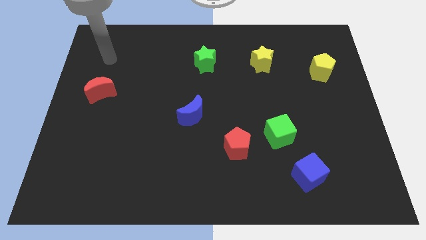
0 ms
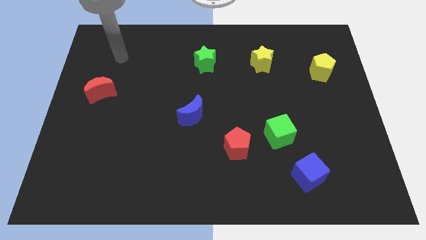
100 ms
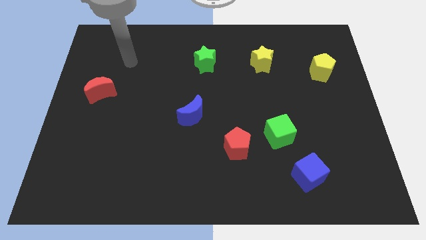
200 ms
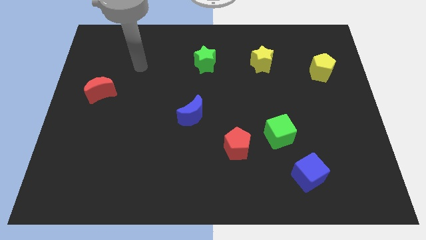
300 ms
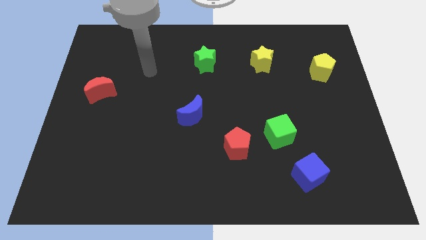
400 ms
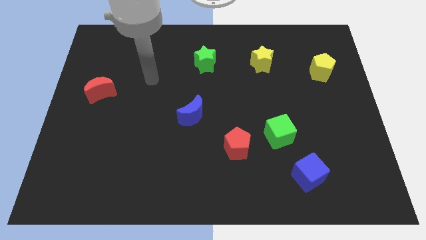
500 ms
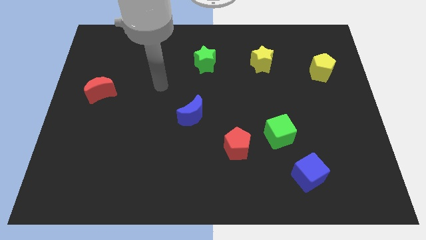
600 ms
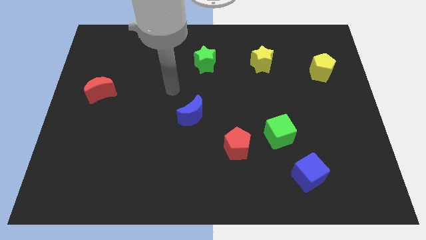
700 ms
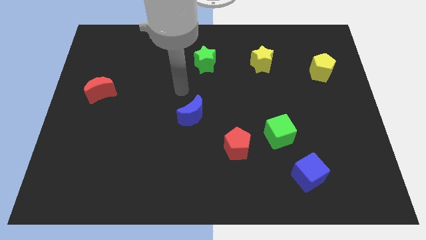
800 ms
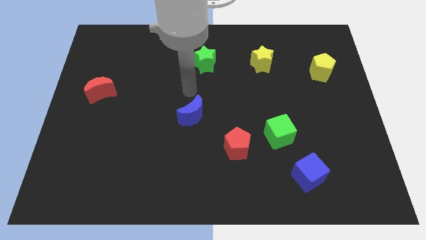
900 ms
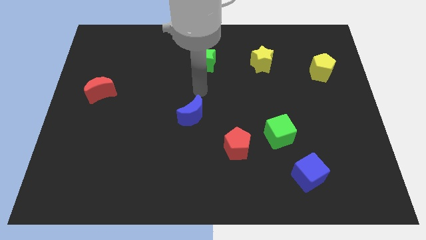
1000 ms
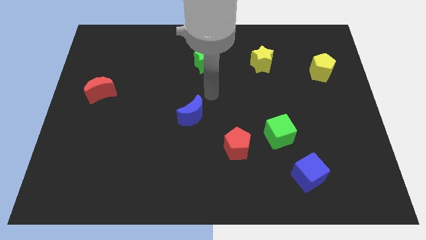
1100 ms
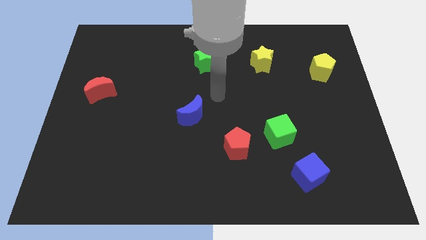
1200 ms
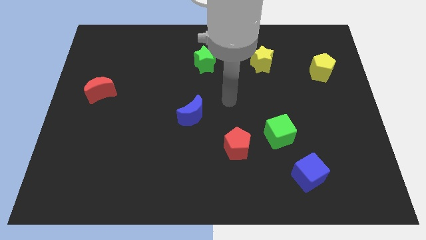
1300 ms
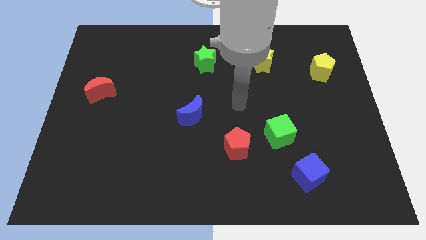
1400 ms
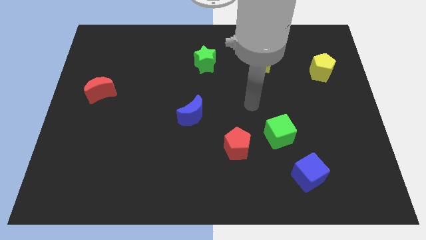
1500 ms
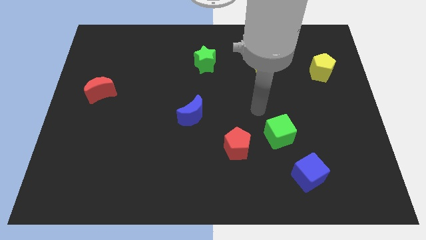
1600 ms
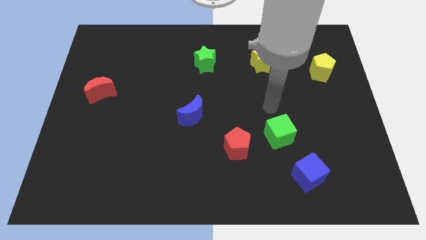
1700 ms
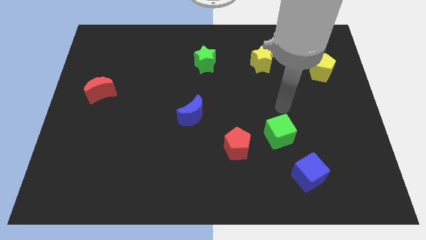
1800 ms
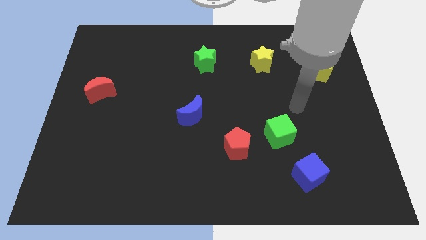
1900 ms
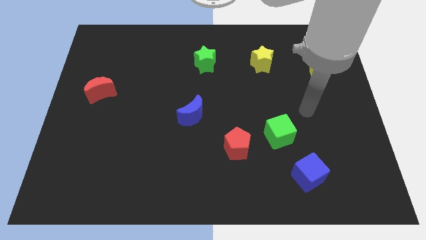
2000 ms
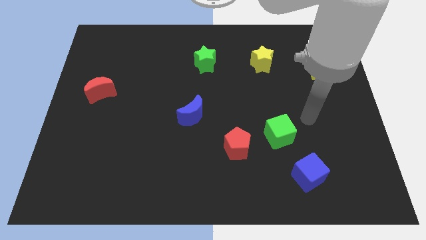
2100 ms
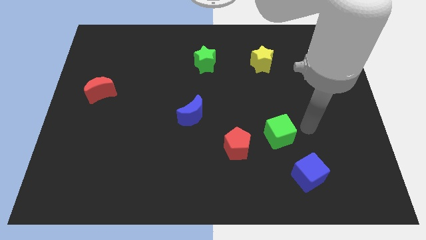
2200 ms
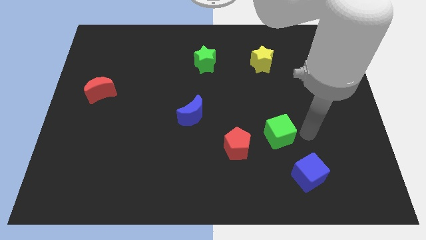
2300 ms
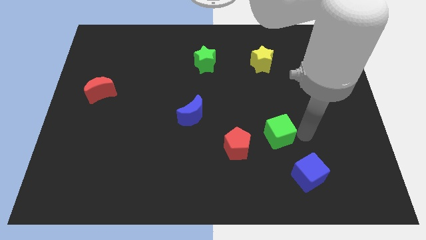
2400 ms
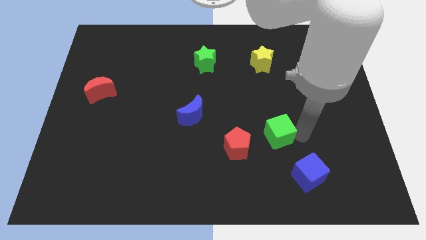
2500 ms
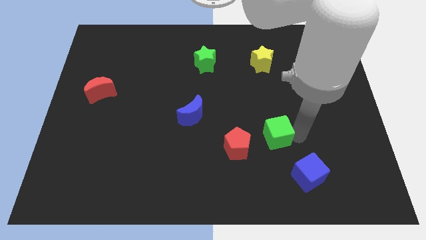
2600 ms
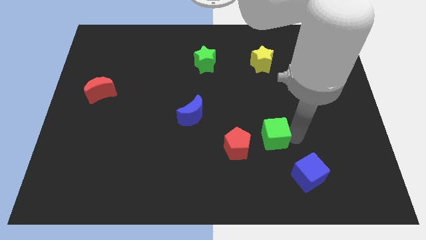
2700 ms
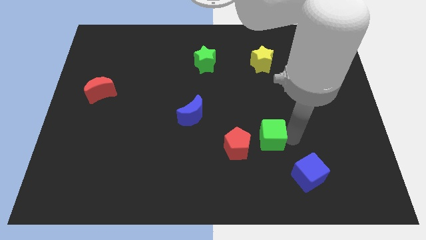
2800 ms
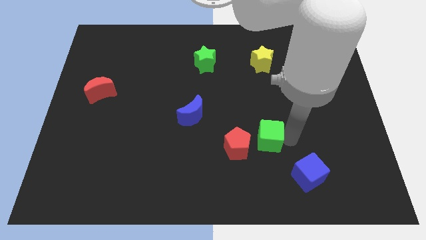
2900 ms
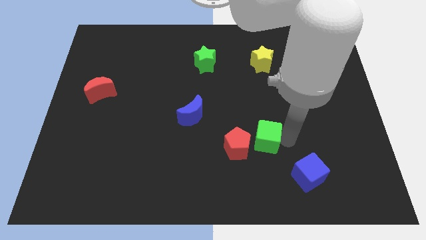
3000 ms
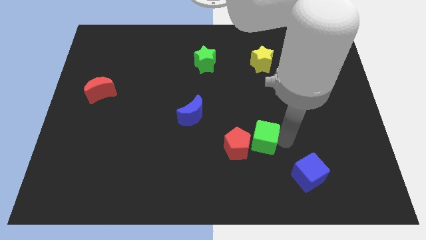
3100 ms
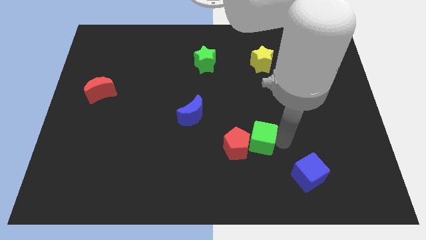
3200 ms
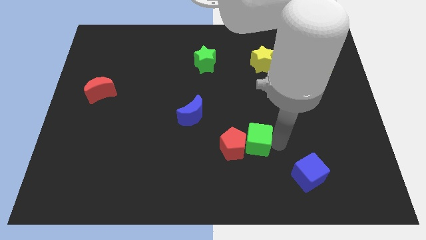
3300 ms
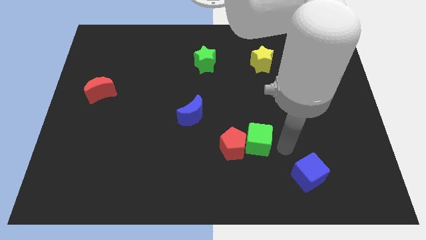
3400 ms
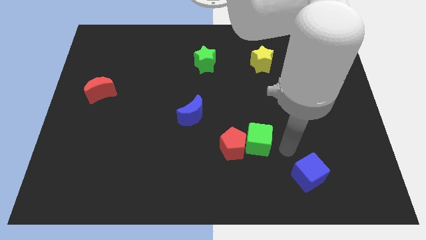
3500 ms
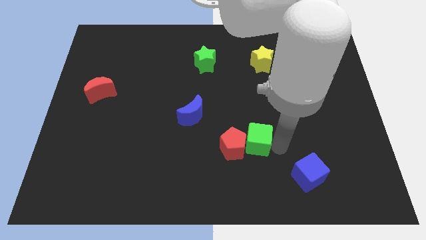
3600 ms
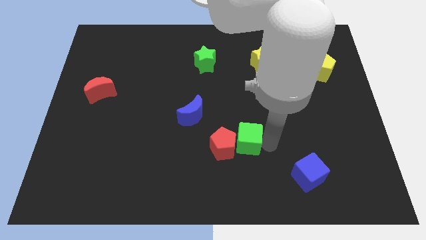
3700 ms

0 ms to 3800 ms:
slide the green cube left somewhat

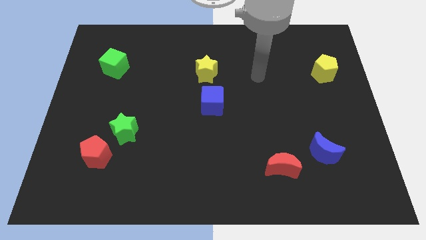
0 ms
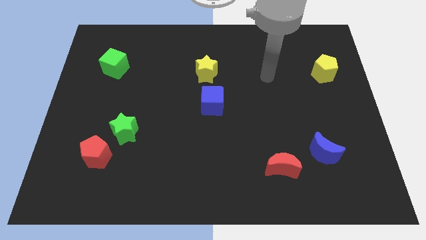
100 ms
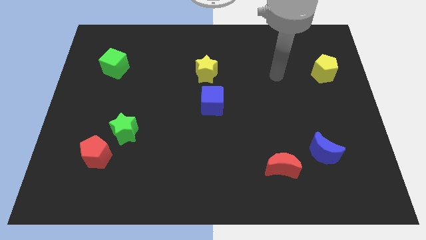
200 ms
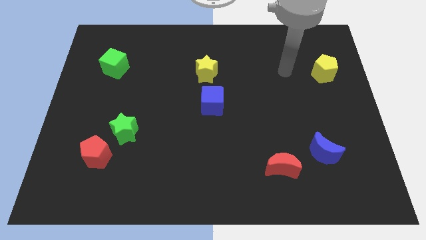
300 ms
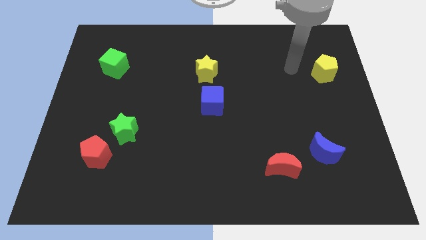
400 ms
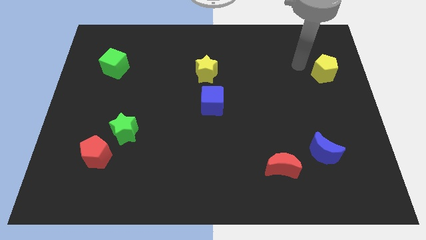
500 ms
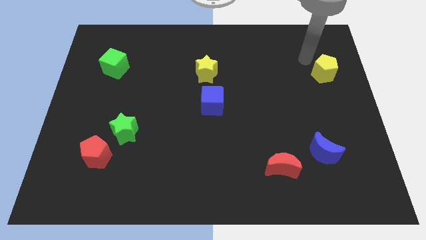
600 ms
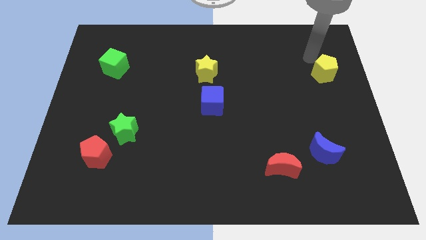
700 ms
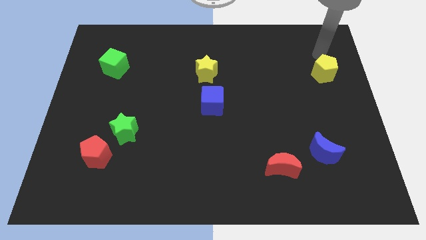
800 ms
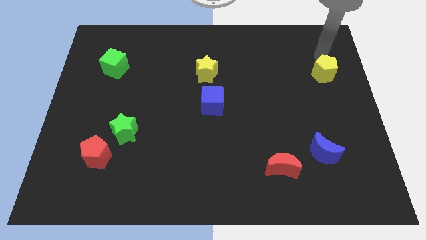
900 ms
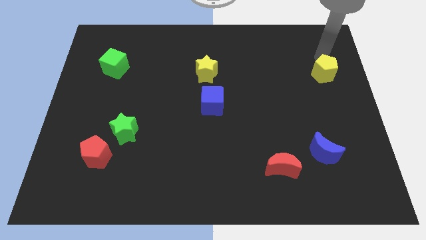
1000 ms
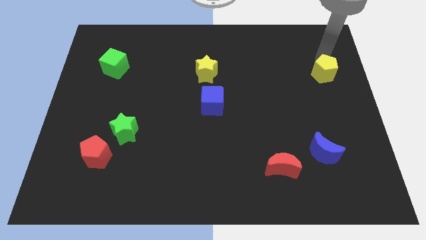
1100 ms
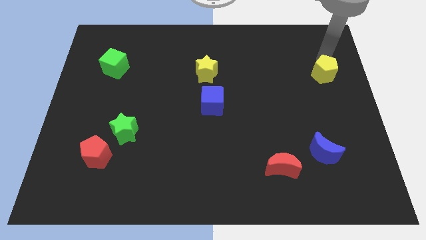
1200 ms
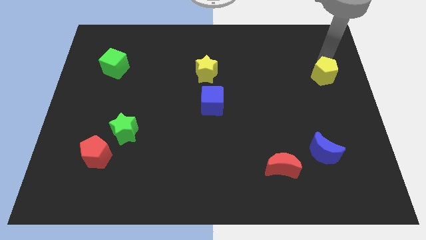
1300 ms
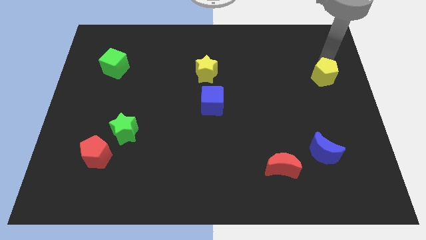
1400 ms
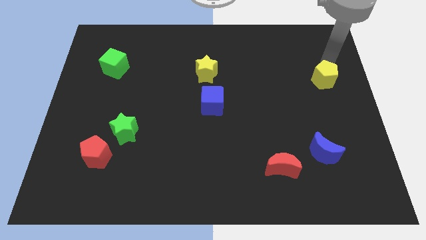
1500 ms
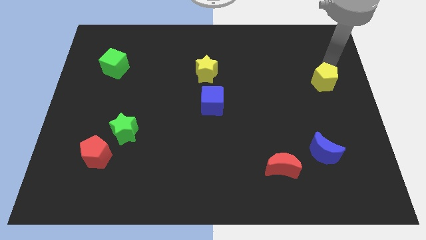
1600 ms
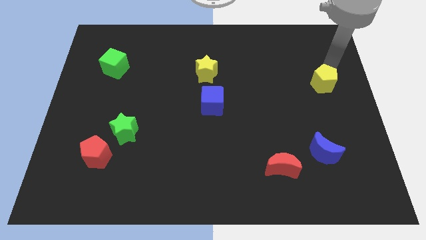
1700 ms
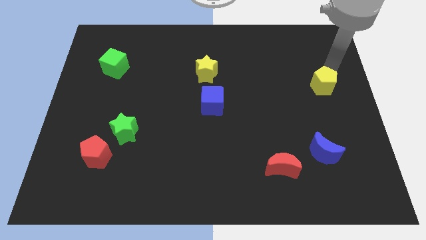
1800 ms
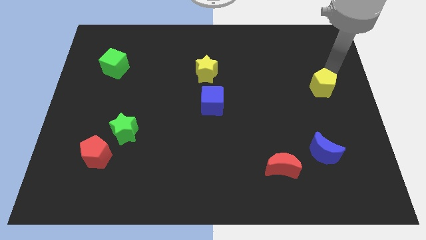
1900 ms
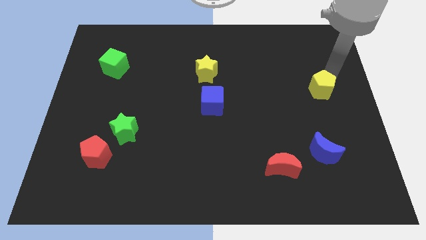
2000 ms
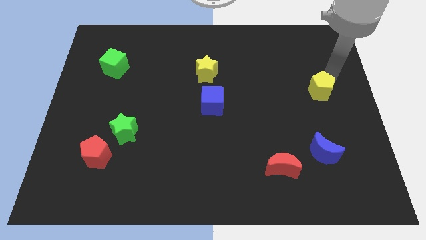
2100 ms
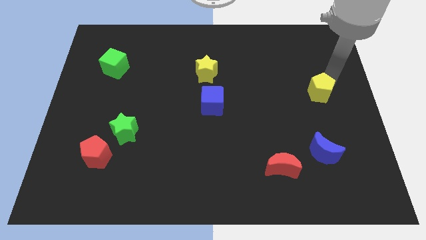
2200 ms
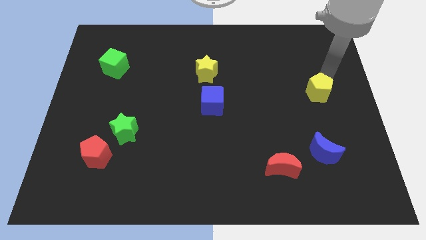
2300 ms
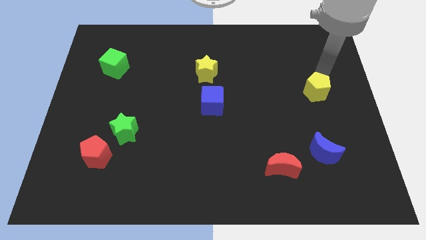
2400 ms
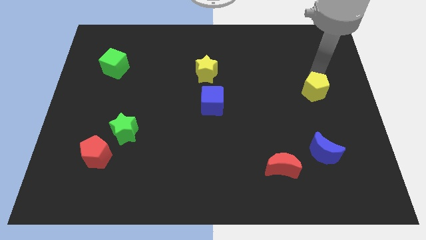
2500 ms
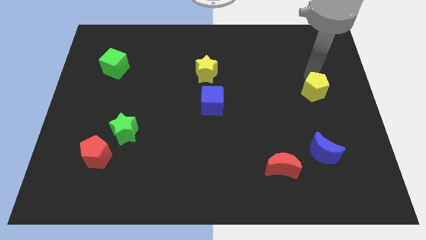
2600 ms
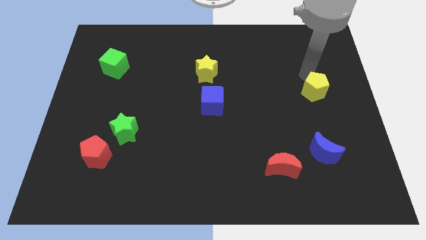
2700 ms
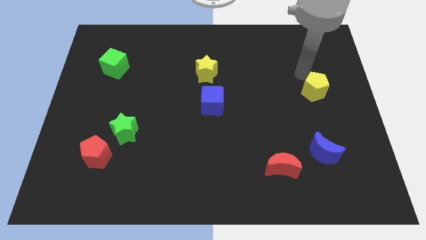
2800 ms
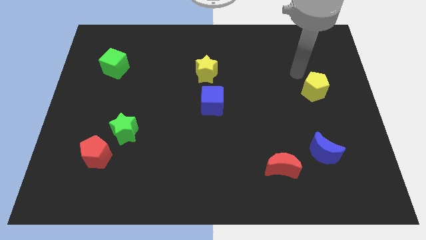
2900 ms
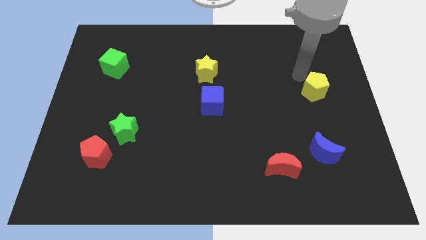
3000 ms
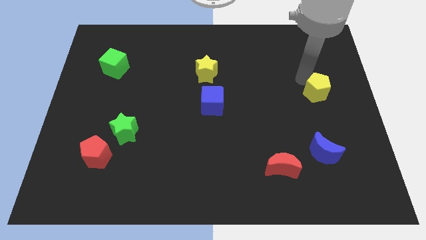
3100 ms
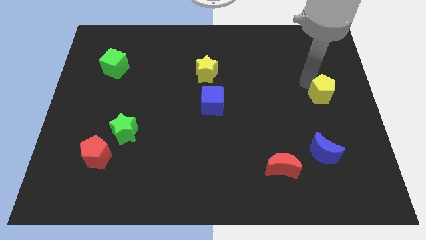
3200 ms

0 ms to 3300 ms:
push the yellow pentagon a bit downwards

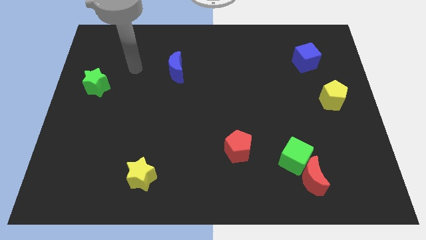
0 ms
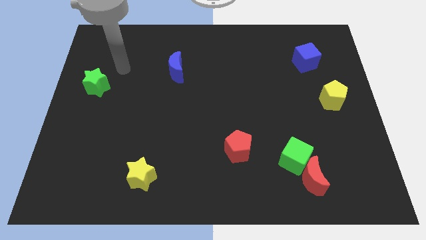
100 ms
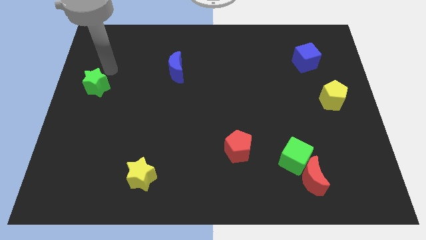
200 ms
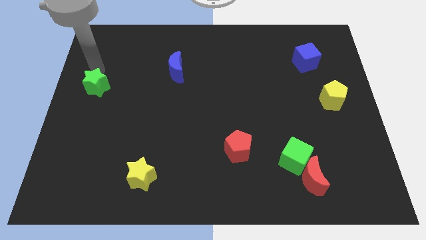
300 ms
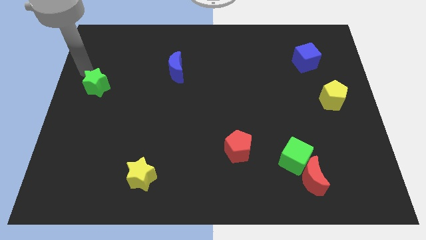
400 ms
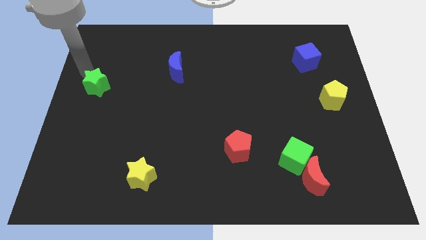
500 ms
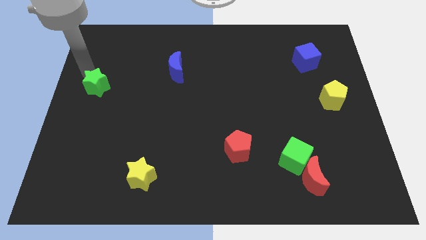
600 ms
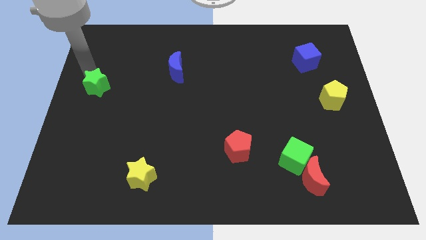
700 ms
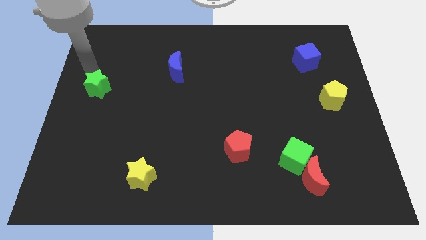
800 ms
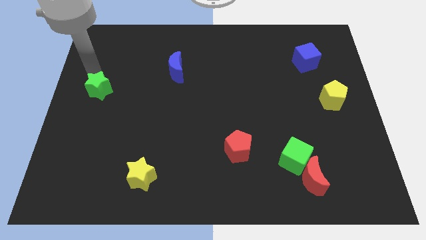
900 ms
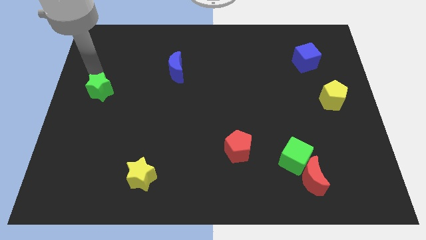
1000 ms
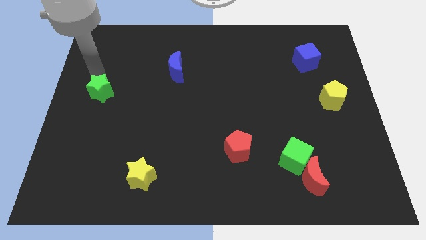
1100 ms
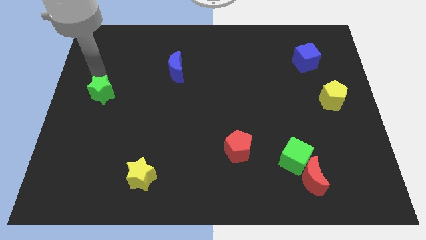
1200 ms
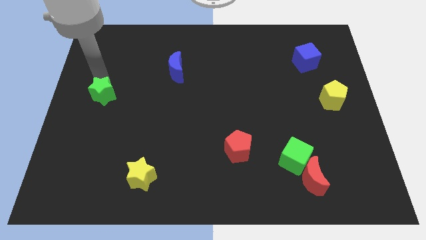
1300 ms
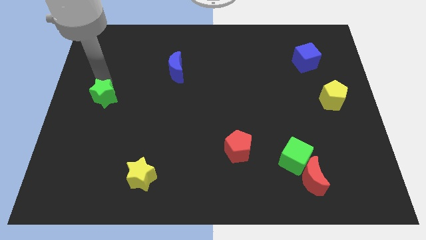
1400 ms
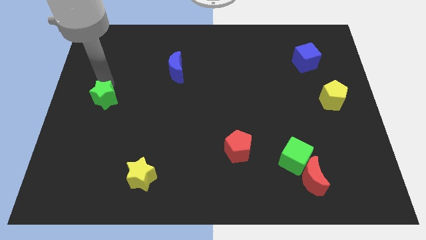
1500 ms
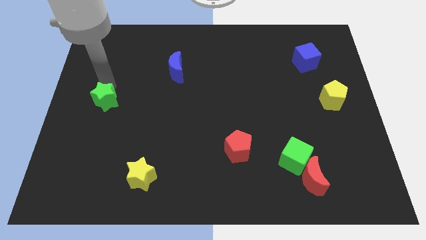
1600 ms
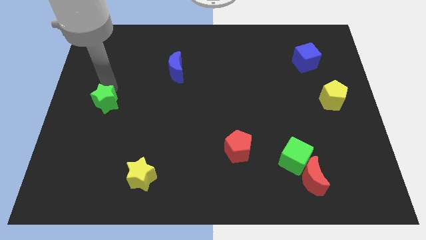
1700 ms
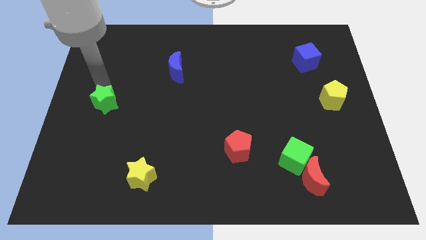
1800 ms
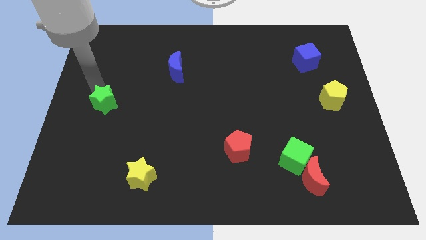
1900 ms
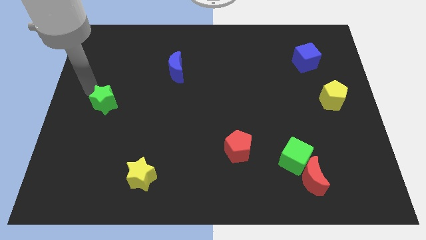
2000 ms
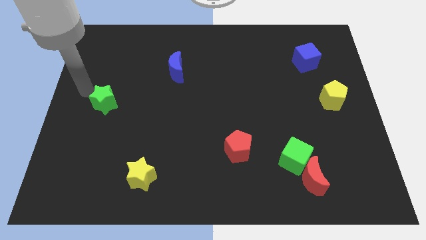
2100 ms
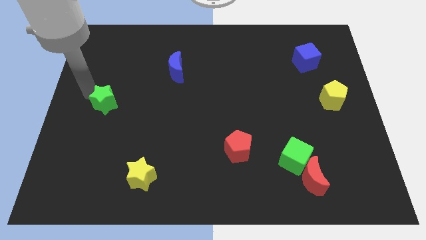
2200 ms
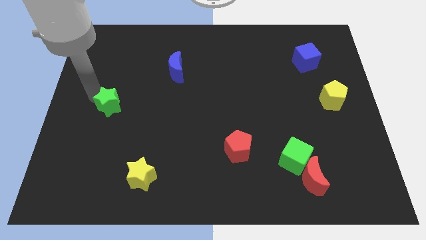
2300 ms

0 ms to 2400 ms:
push the green star slightly down and to the right diagonally
